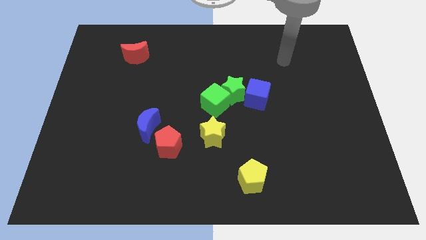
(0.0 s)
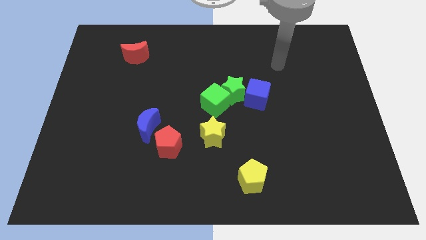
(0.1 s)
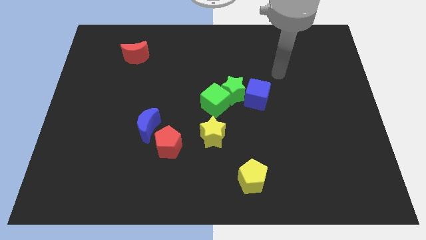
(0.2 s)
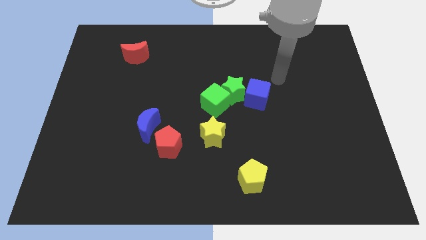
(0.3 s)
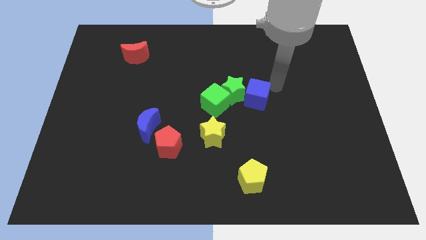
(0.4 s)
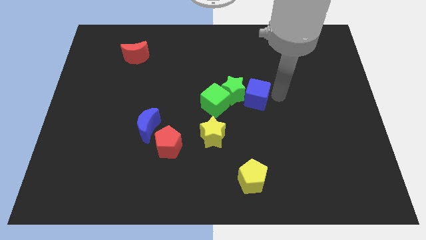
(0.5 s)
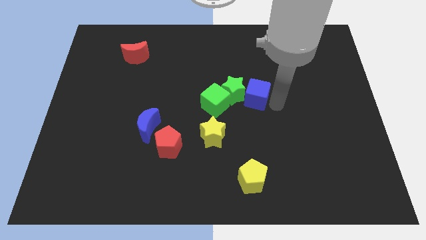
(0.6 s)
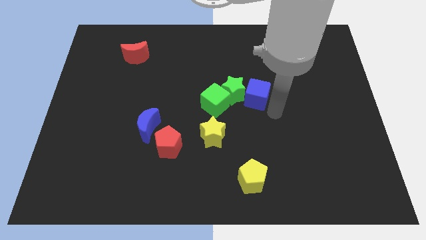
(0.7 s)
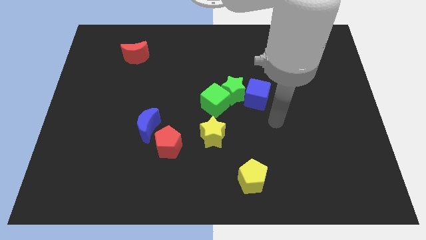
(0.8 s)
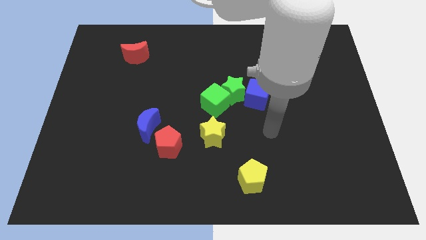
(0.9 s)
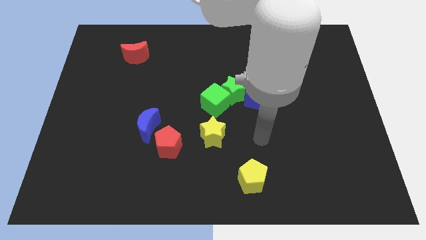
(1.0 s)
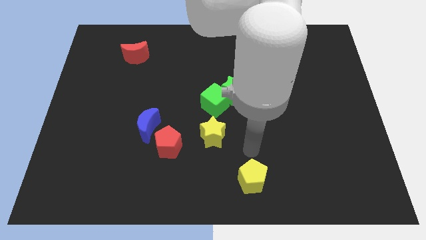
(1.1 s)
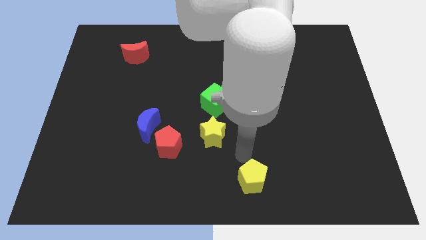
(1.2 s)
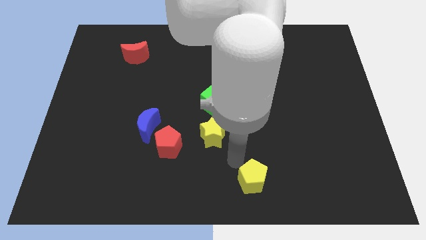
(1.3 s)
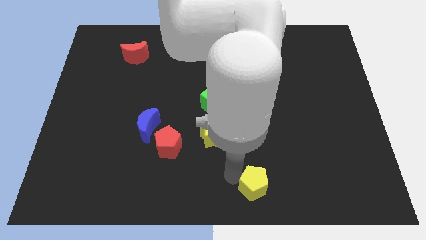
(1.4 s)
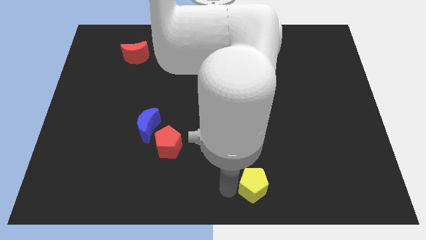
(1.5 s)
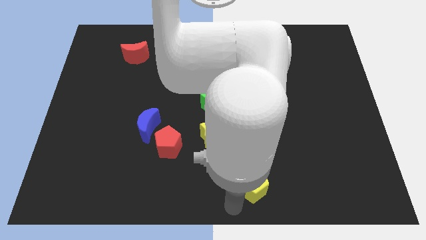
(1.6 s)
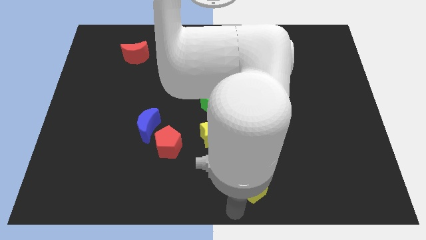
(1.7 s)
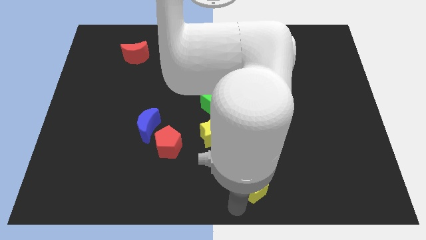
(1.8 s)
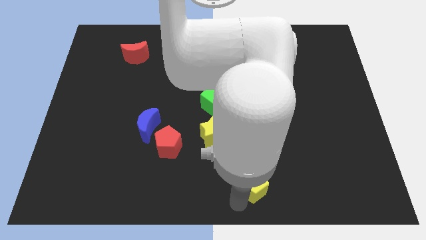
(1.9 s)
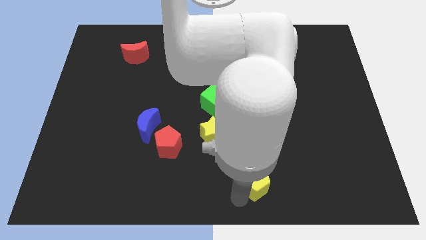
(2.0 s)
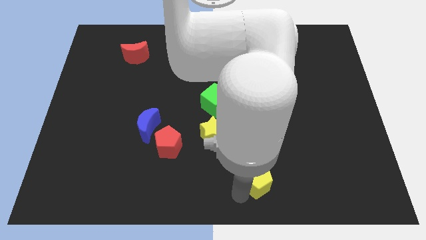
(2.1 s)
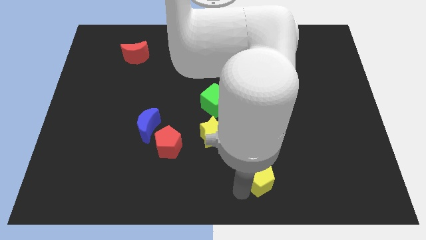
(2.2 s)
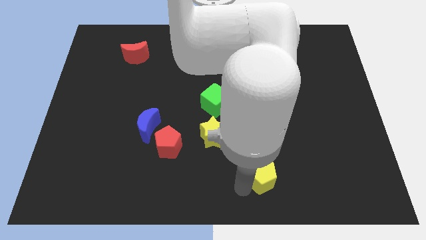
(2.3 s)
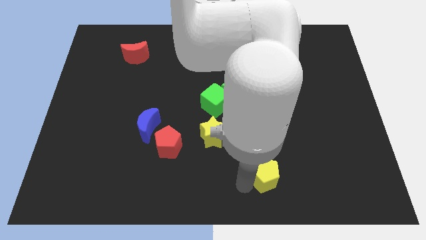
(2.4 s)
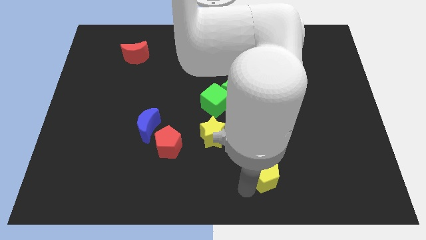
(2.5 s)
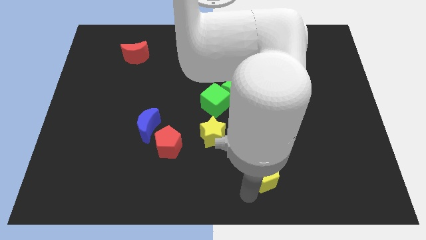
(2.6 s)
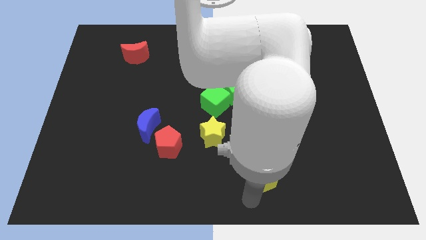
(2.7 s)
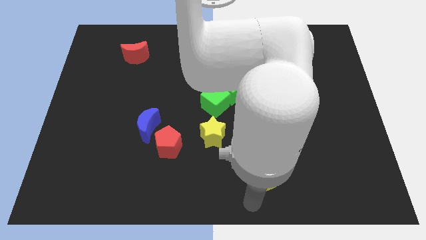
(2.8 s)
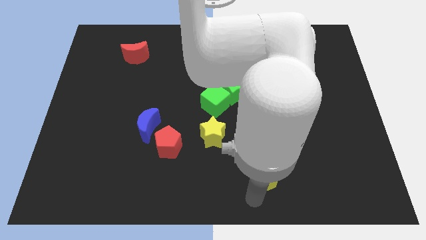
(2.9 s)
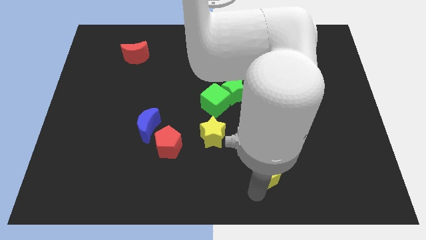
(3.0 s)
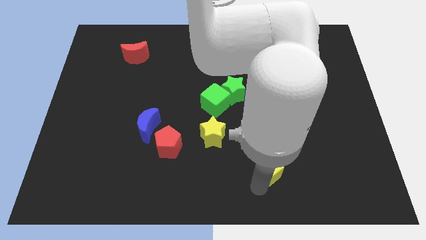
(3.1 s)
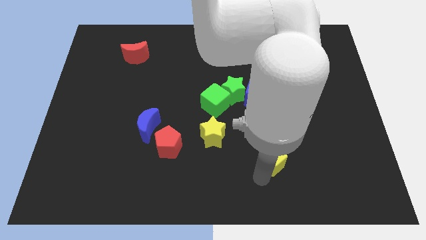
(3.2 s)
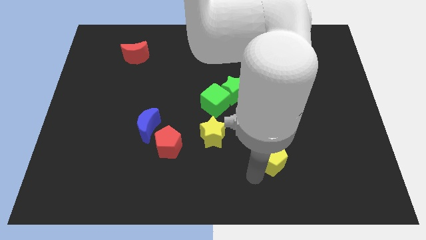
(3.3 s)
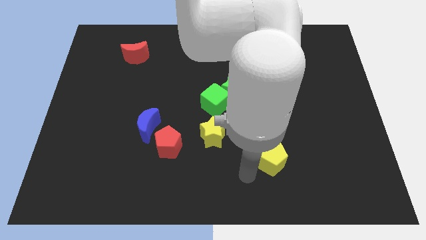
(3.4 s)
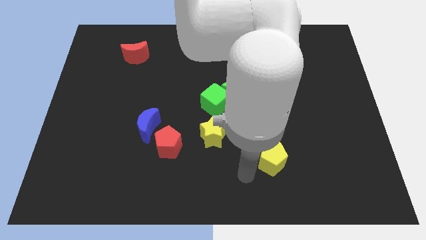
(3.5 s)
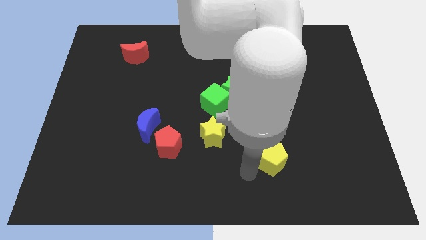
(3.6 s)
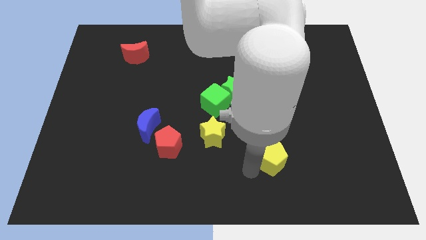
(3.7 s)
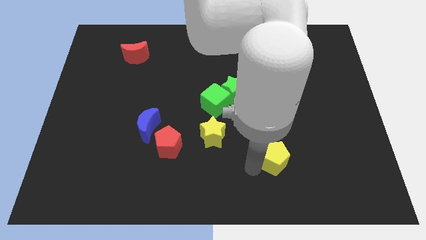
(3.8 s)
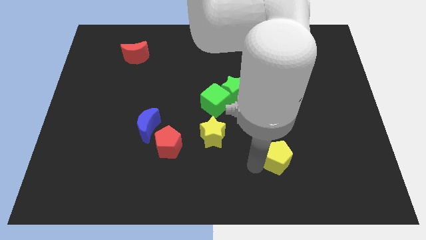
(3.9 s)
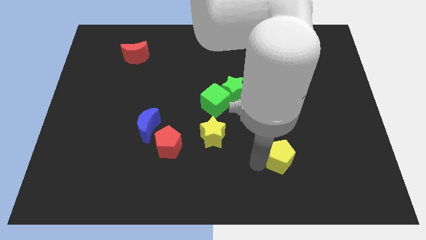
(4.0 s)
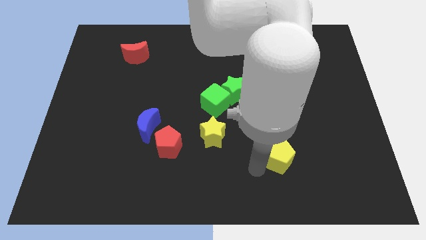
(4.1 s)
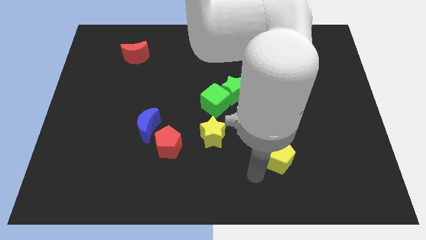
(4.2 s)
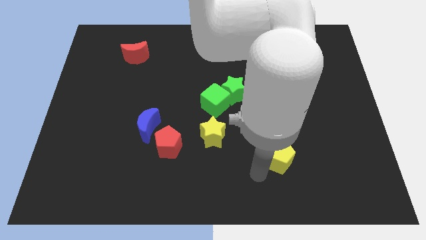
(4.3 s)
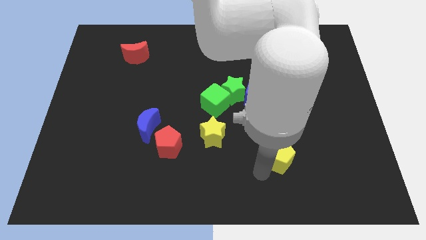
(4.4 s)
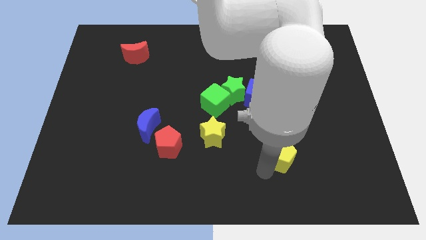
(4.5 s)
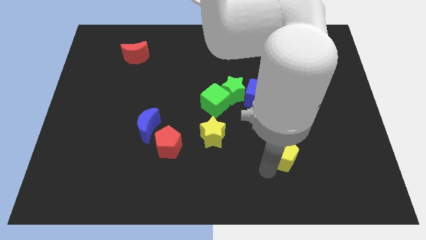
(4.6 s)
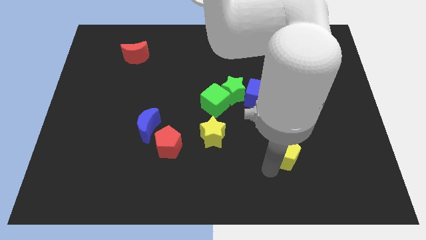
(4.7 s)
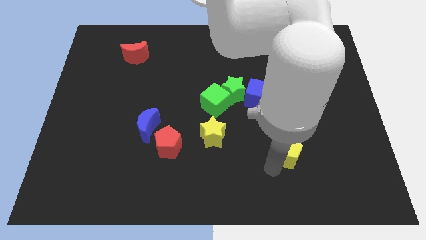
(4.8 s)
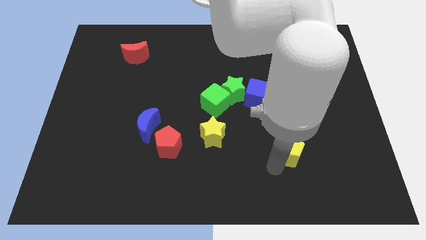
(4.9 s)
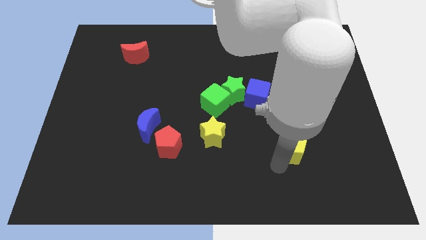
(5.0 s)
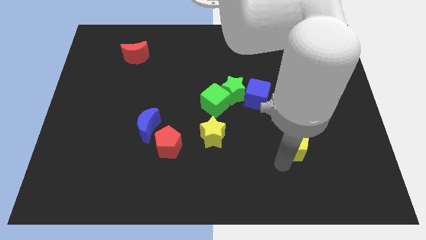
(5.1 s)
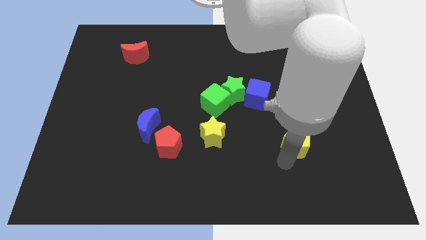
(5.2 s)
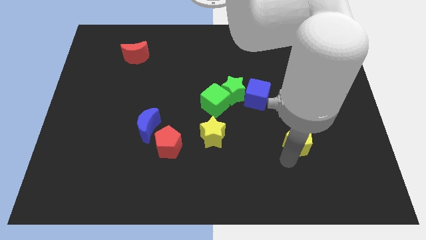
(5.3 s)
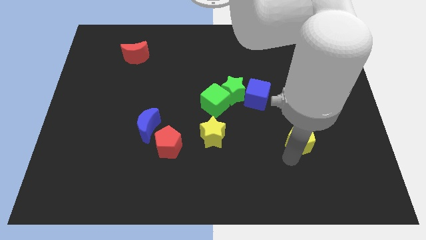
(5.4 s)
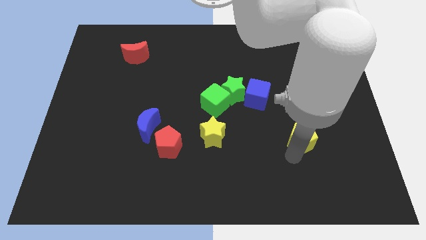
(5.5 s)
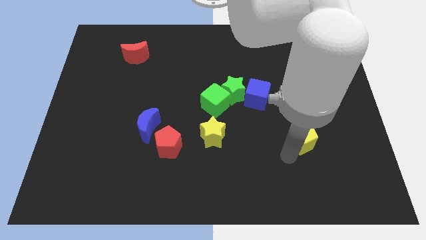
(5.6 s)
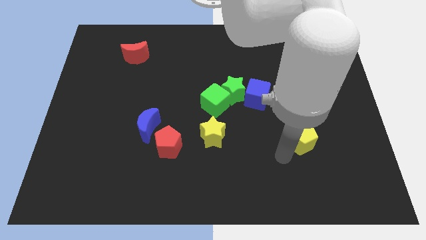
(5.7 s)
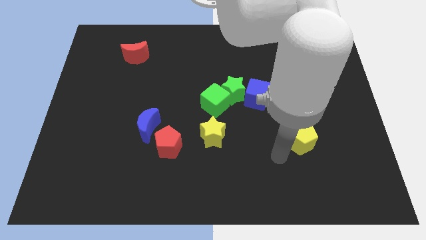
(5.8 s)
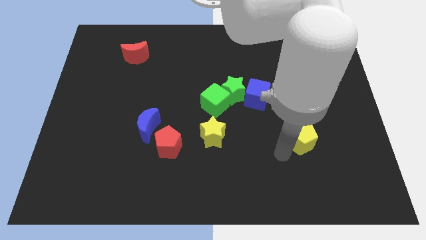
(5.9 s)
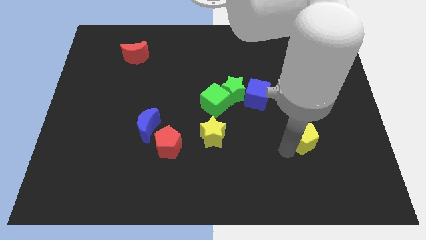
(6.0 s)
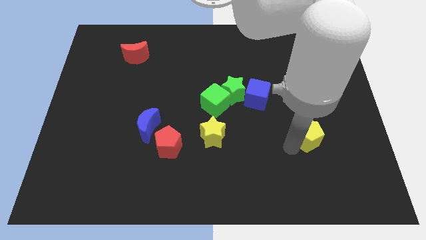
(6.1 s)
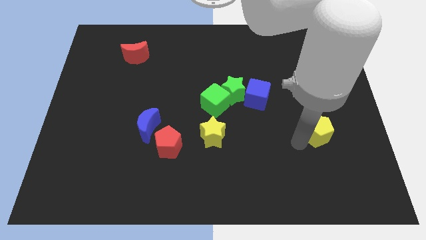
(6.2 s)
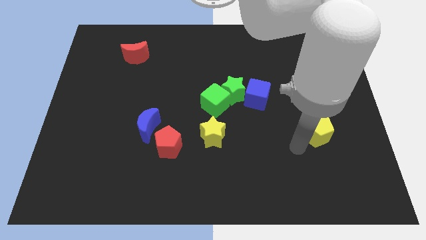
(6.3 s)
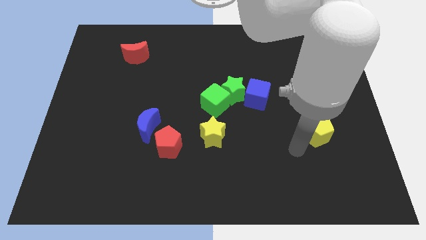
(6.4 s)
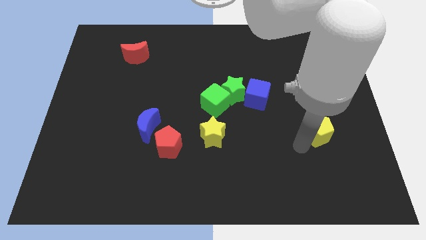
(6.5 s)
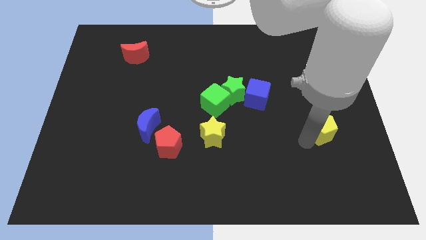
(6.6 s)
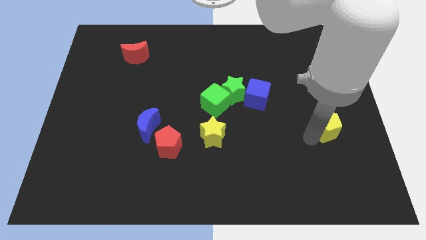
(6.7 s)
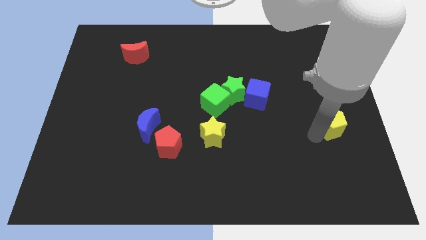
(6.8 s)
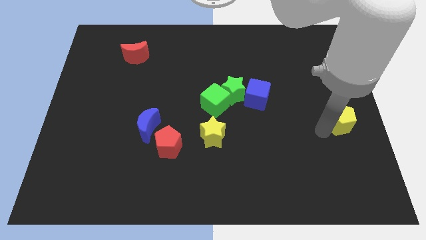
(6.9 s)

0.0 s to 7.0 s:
put the yellow pentagon to the right side of the board

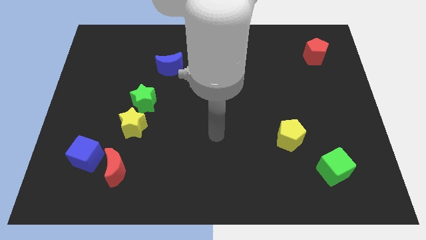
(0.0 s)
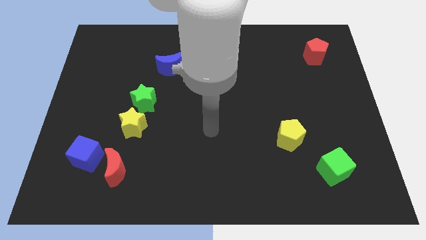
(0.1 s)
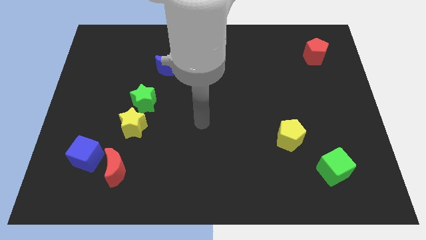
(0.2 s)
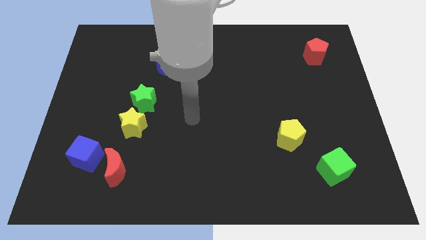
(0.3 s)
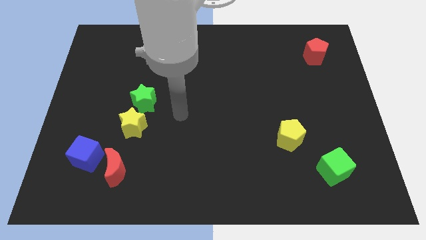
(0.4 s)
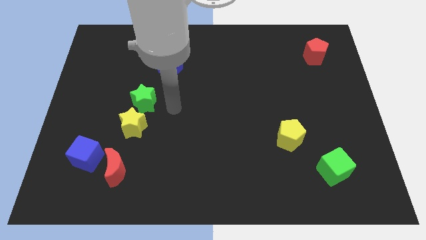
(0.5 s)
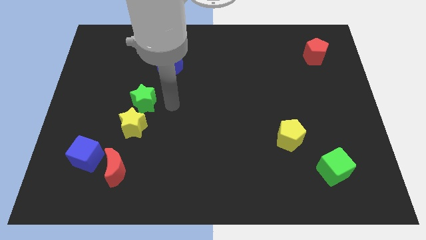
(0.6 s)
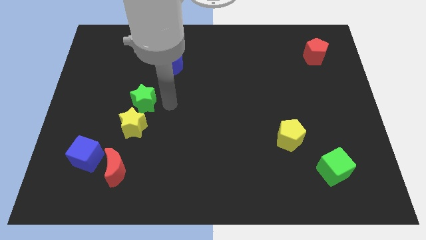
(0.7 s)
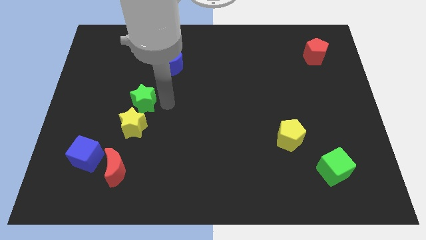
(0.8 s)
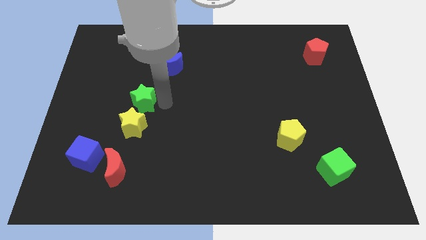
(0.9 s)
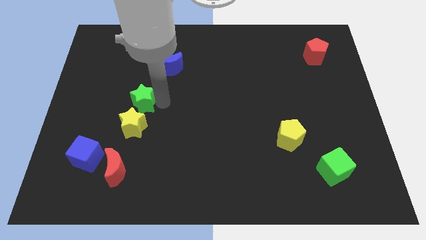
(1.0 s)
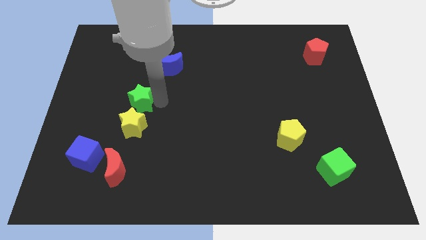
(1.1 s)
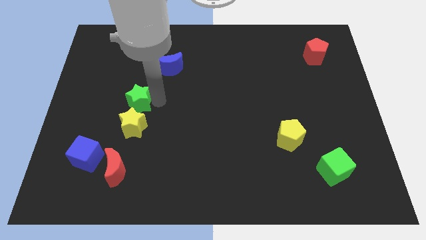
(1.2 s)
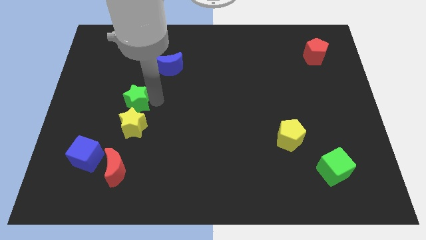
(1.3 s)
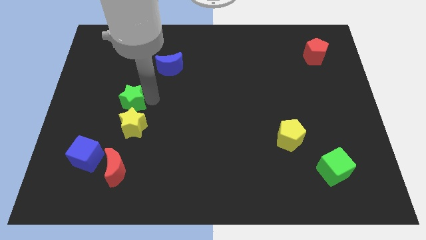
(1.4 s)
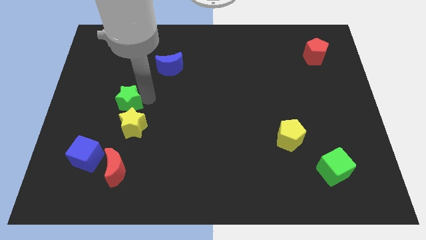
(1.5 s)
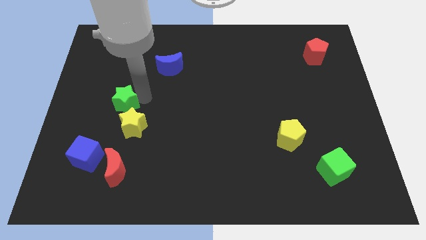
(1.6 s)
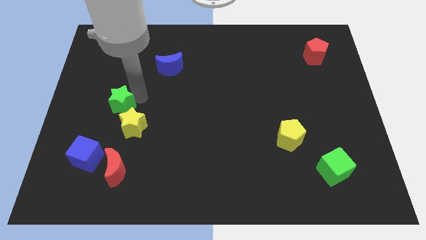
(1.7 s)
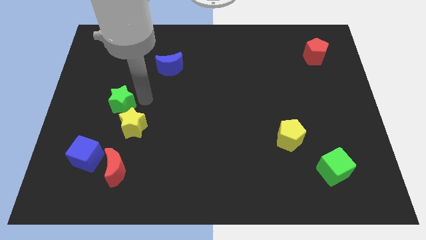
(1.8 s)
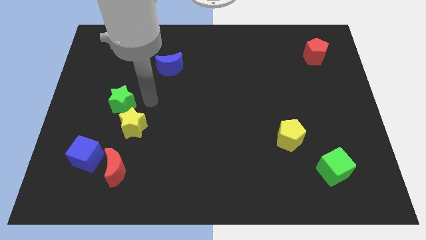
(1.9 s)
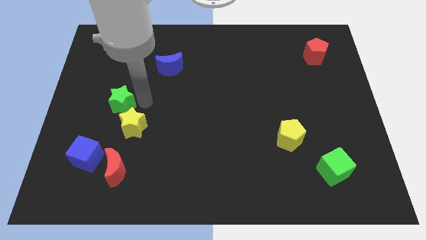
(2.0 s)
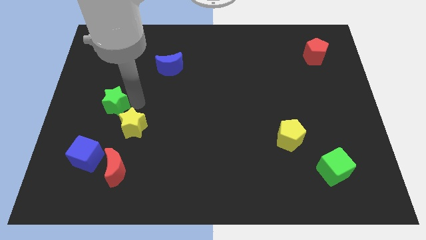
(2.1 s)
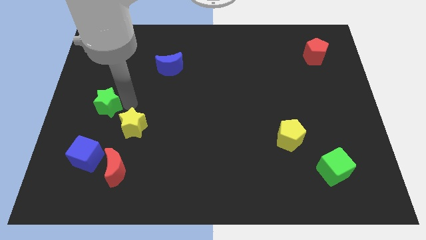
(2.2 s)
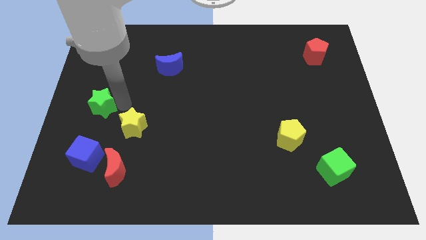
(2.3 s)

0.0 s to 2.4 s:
push the green star to the left side of the board
